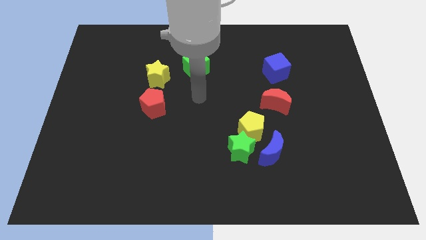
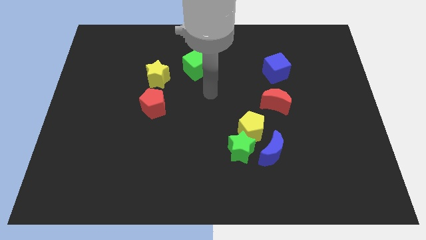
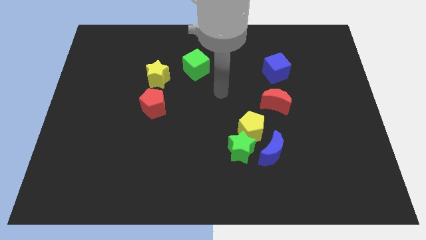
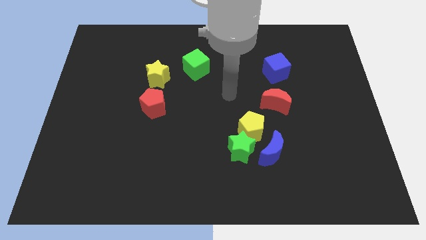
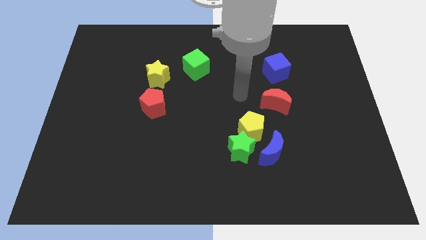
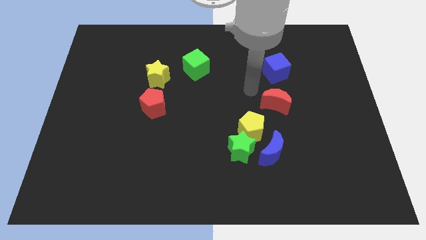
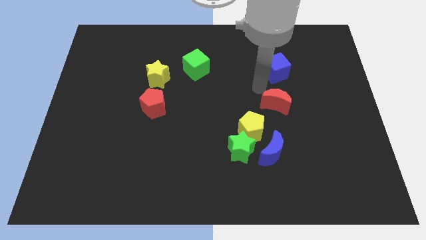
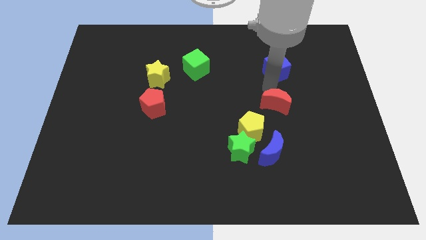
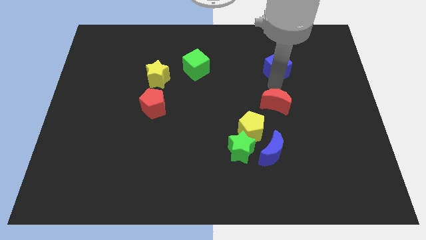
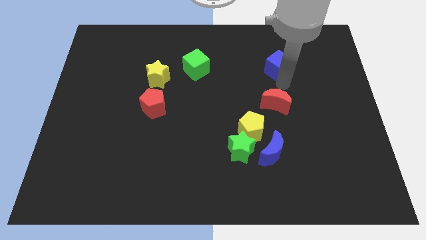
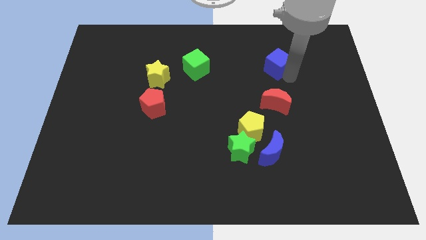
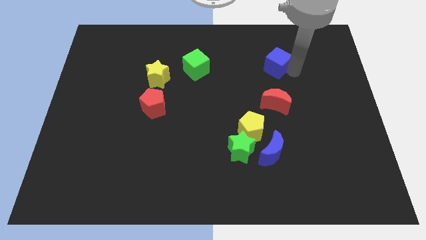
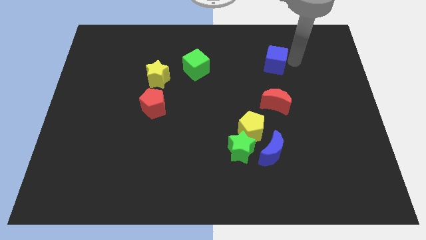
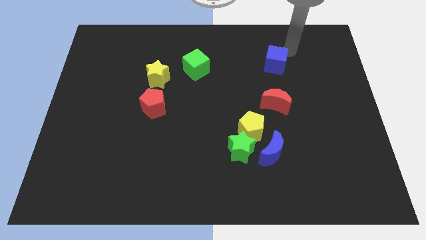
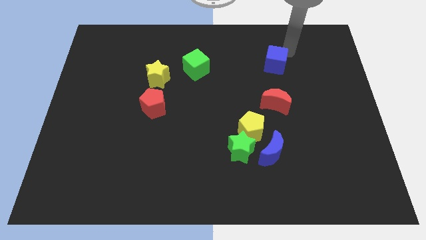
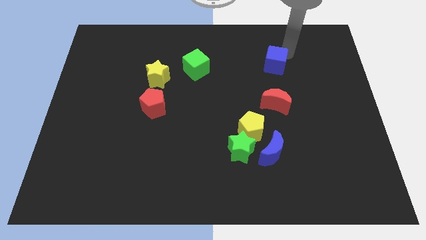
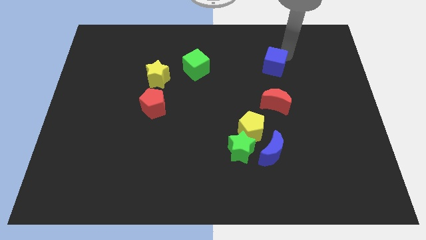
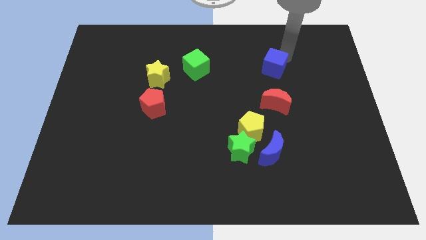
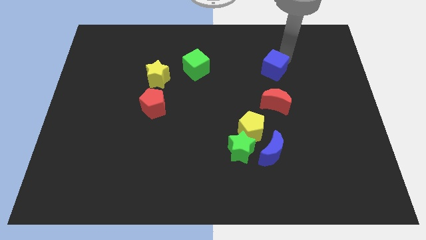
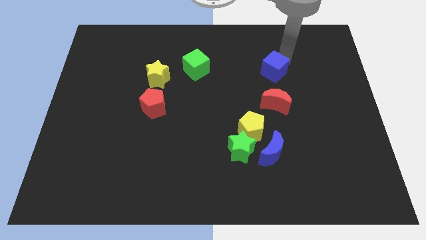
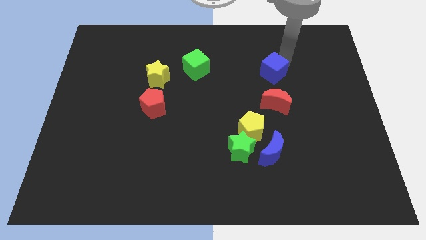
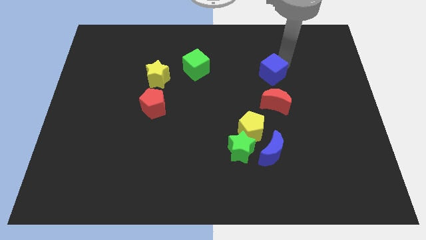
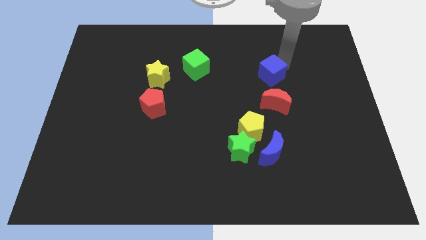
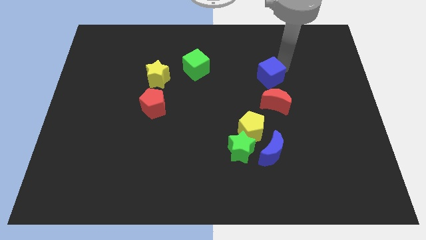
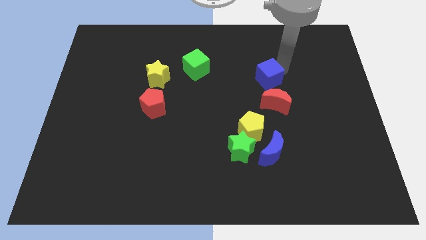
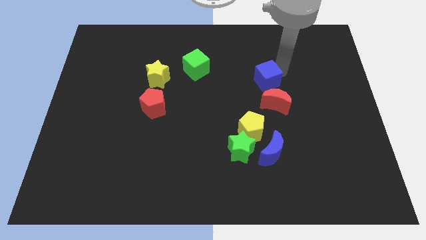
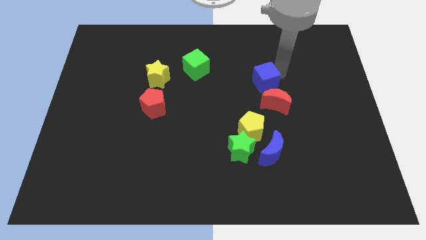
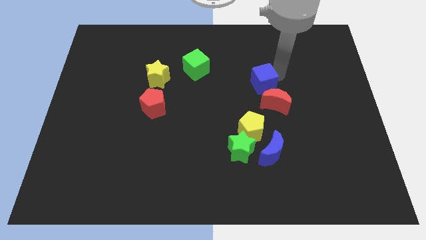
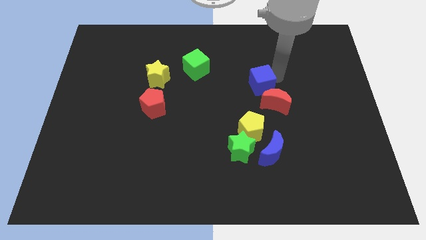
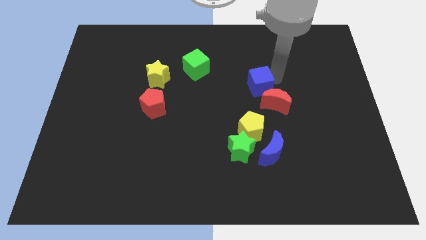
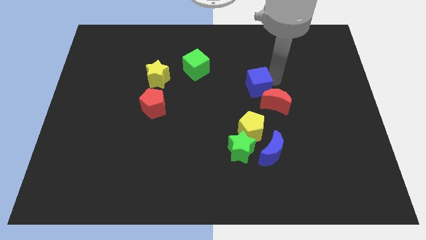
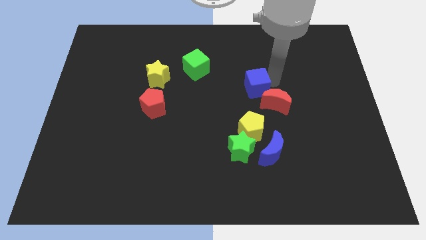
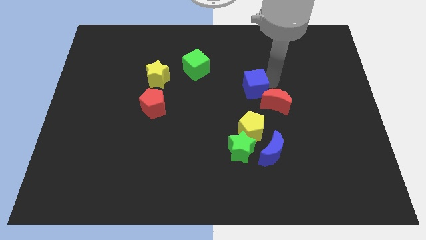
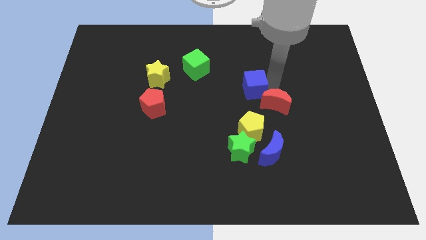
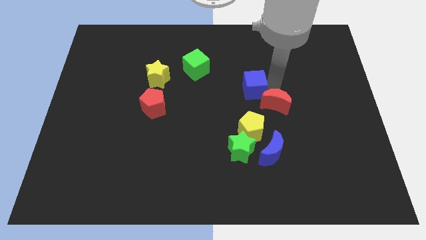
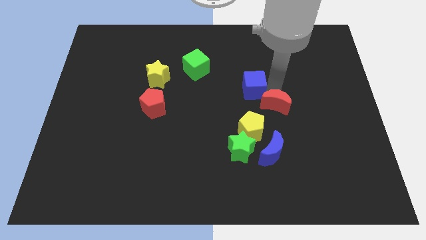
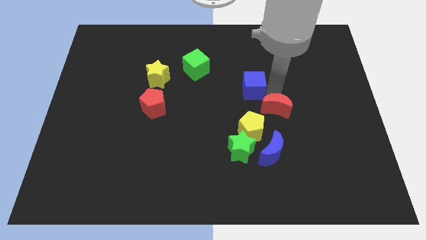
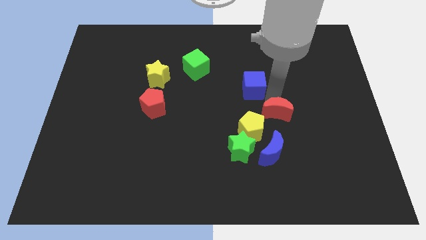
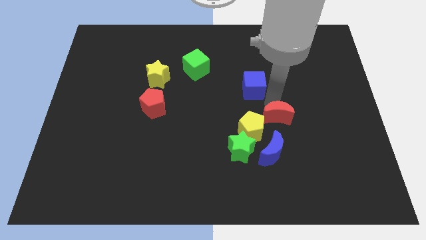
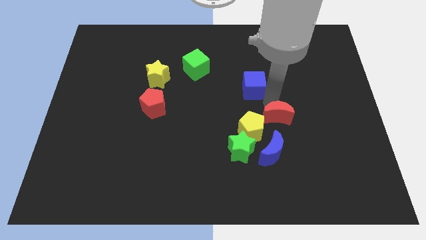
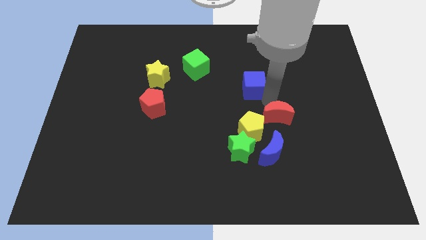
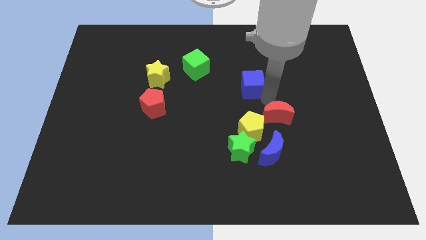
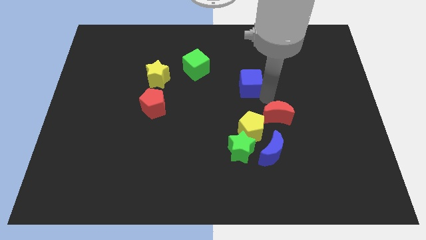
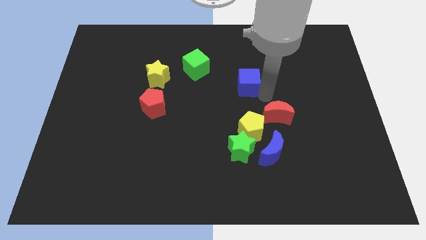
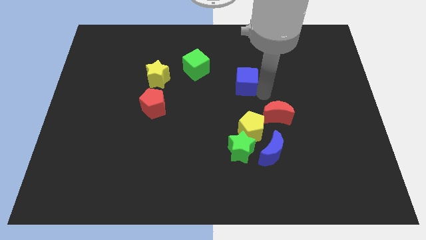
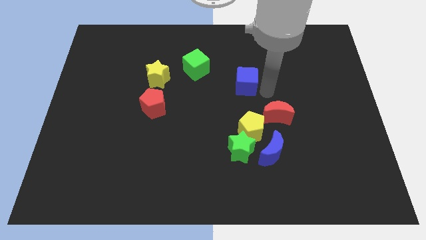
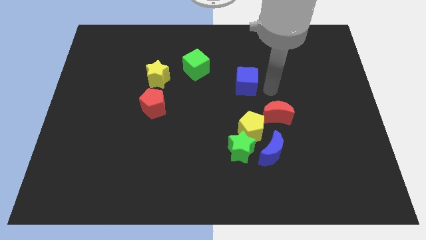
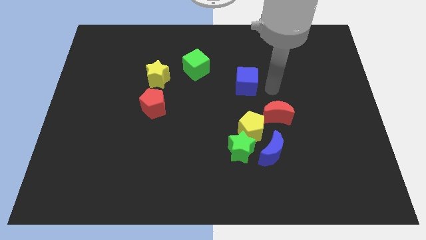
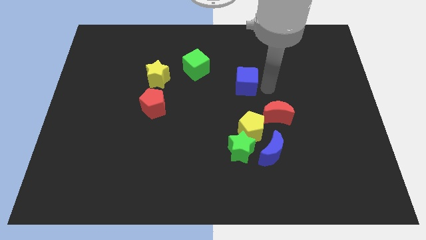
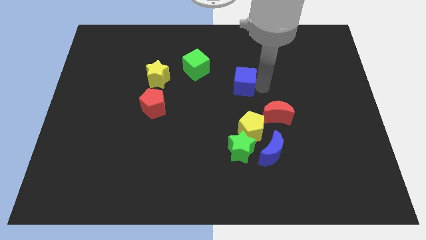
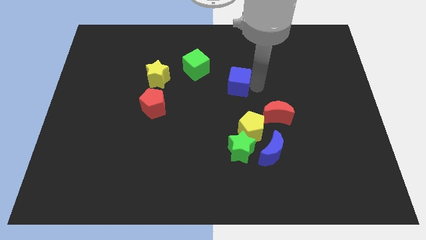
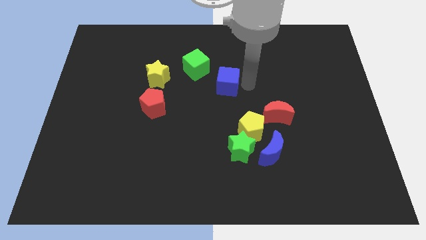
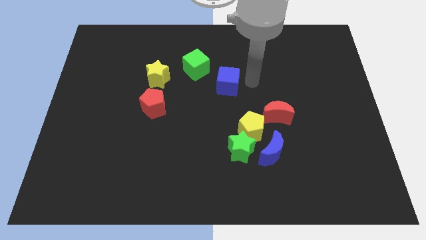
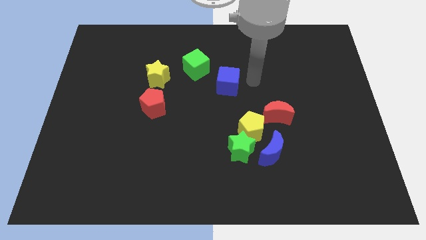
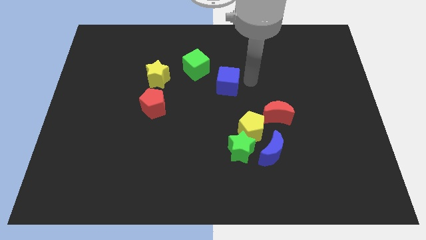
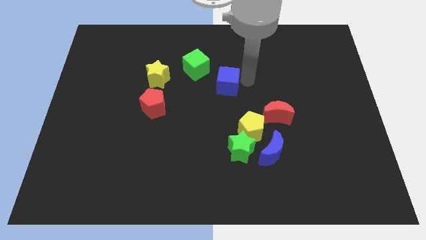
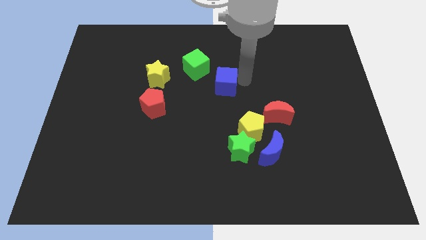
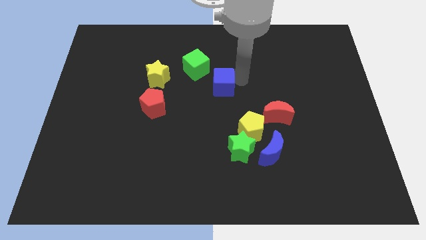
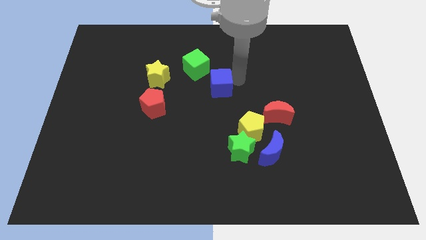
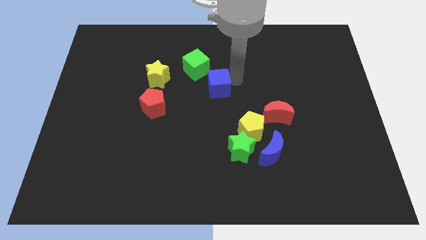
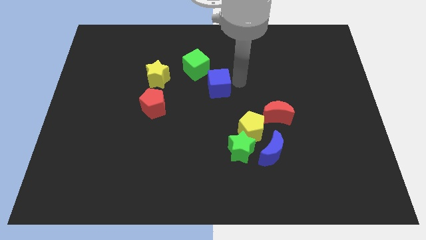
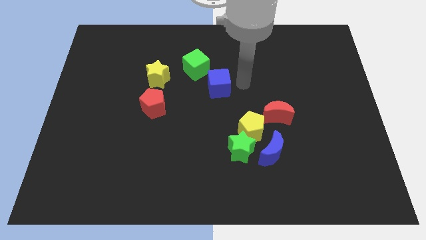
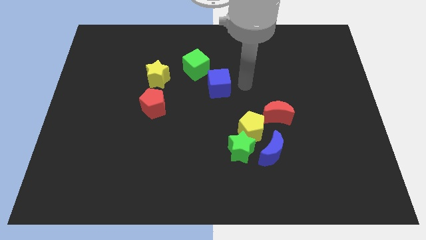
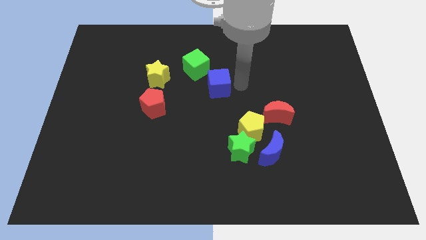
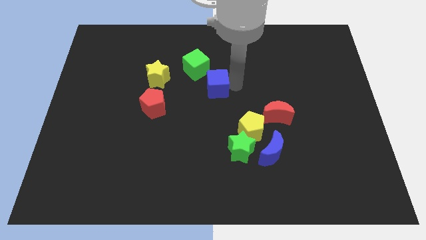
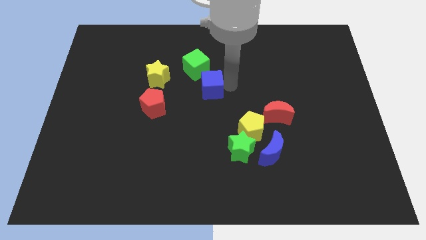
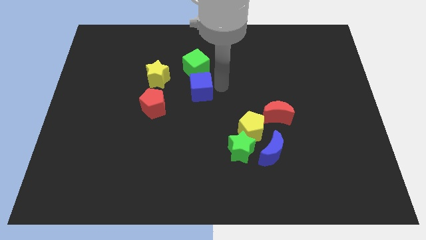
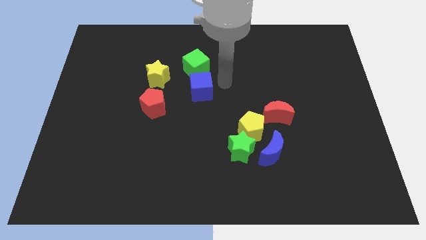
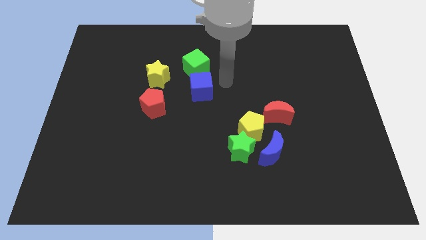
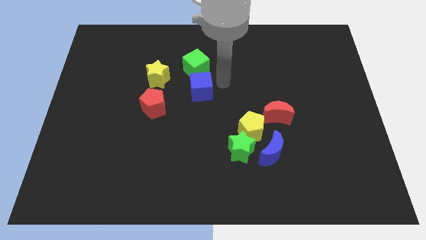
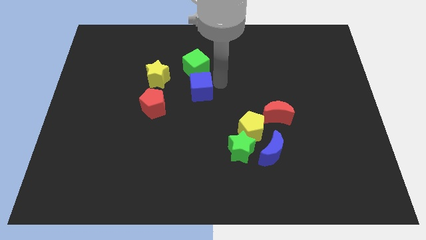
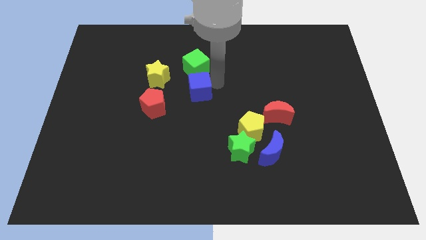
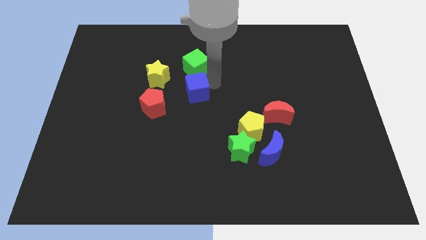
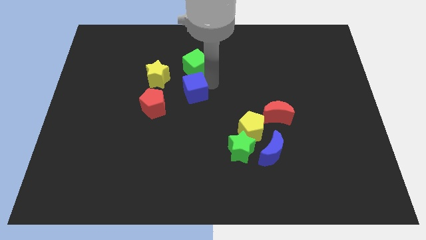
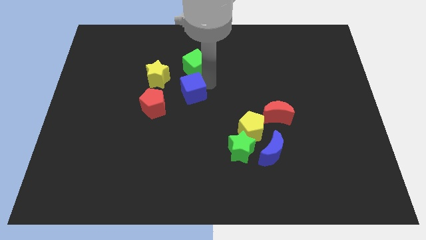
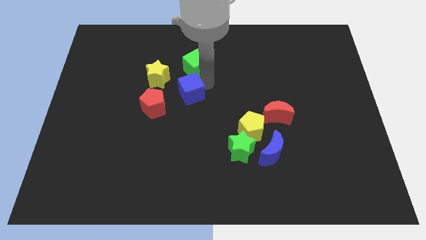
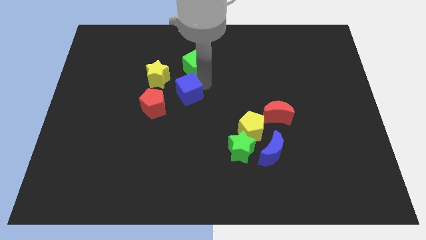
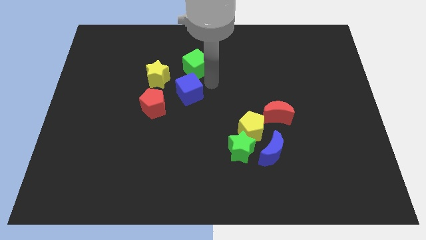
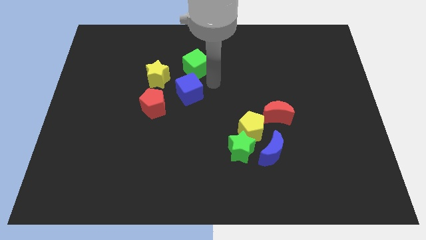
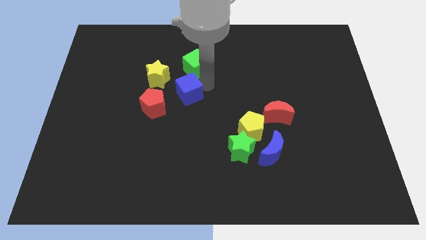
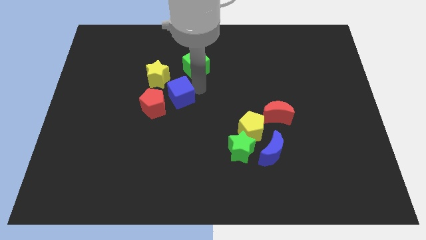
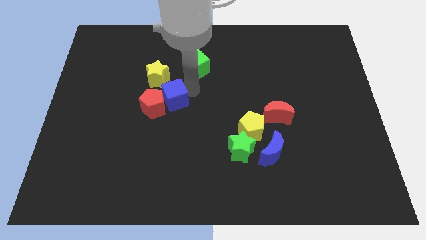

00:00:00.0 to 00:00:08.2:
move the blue cube next to the red pentagon
